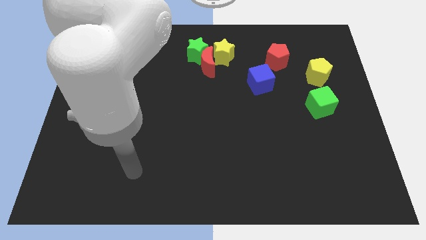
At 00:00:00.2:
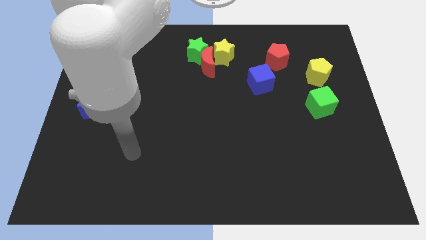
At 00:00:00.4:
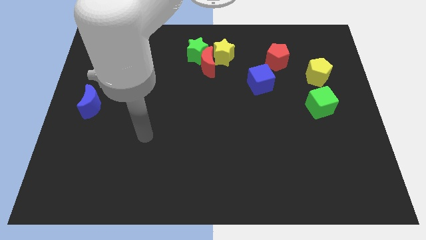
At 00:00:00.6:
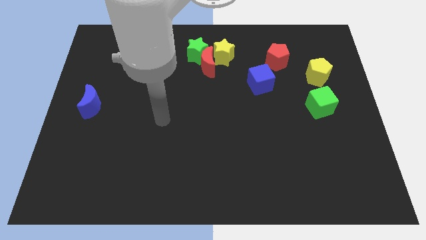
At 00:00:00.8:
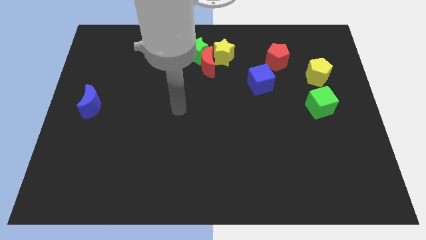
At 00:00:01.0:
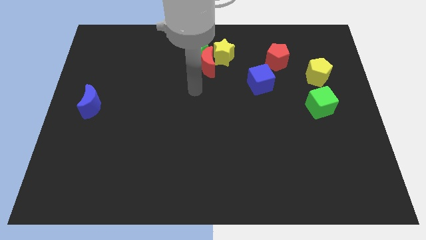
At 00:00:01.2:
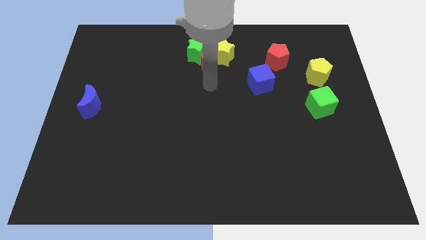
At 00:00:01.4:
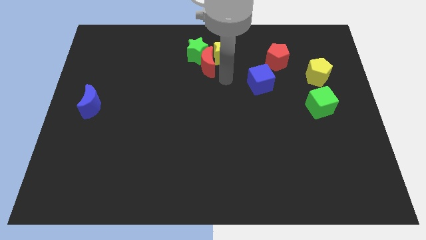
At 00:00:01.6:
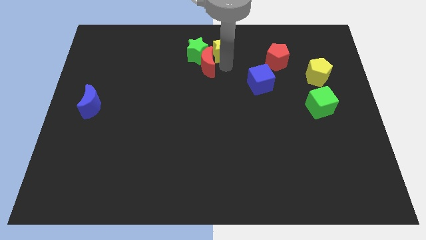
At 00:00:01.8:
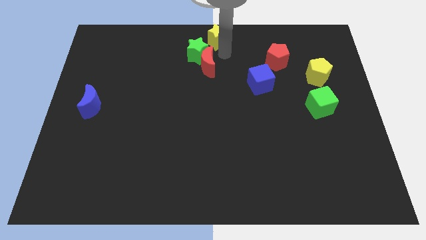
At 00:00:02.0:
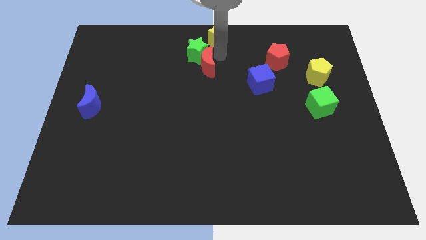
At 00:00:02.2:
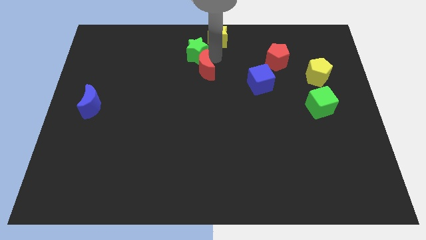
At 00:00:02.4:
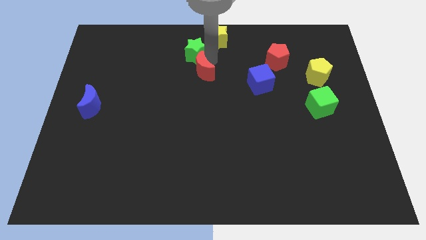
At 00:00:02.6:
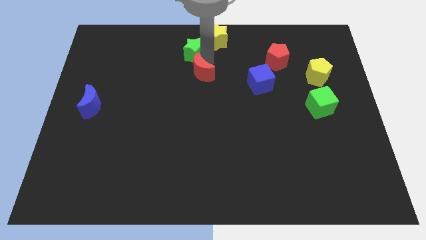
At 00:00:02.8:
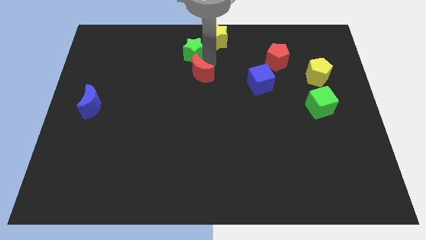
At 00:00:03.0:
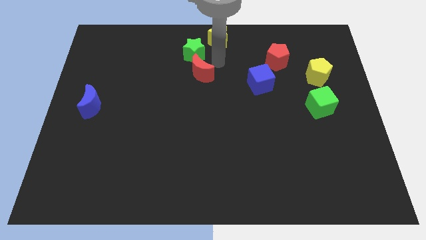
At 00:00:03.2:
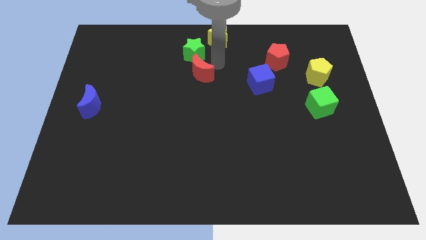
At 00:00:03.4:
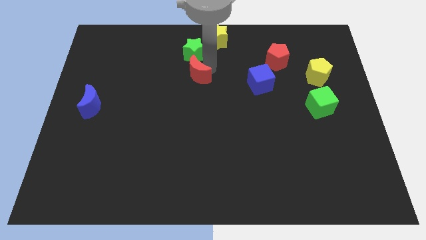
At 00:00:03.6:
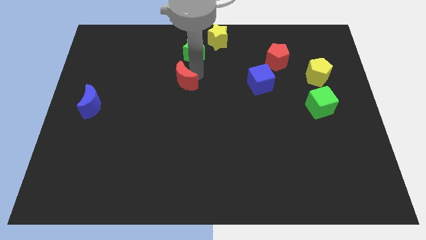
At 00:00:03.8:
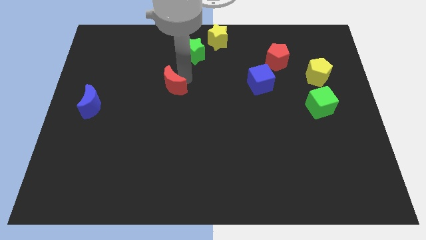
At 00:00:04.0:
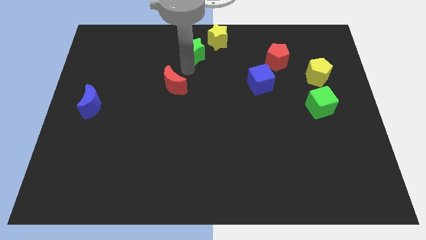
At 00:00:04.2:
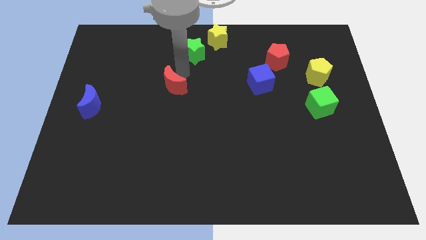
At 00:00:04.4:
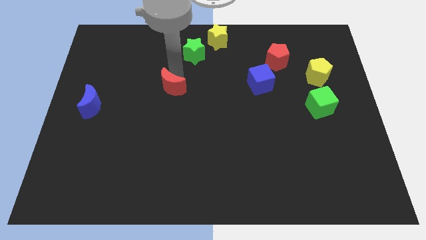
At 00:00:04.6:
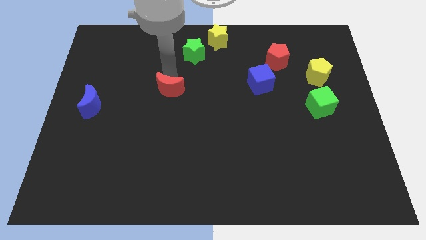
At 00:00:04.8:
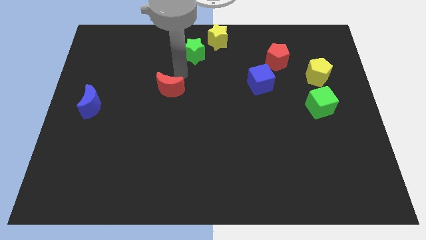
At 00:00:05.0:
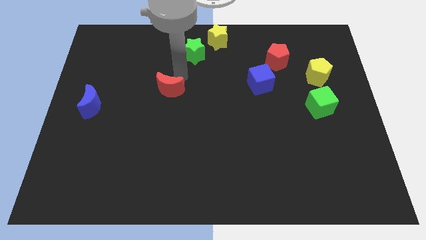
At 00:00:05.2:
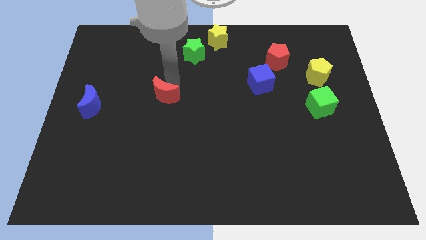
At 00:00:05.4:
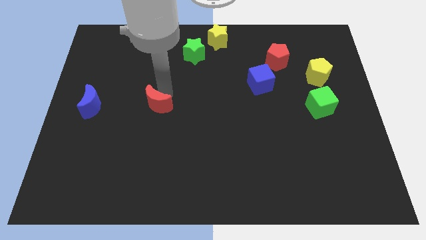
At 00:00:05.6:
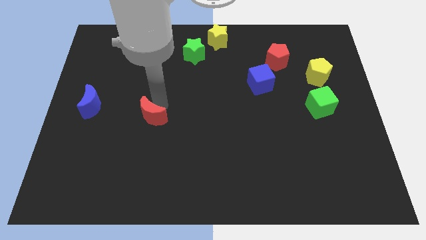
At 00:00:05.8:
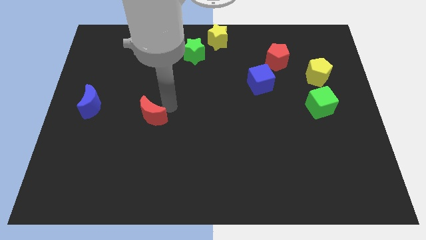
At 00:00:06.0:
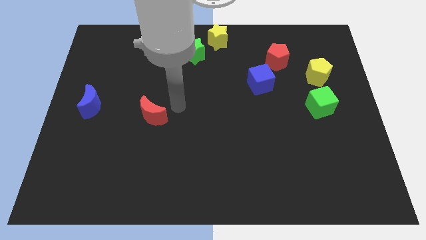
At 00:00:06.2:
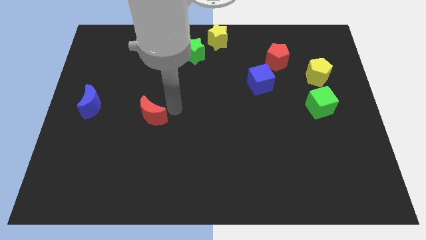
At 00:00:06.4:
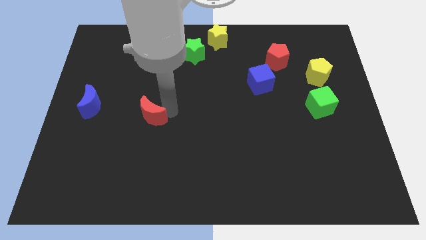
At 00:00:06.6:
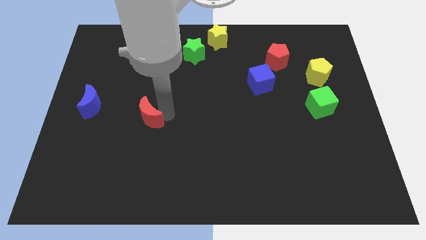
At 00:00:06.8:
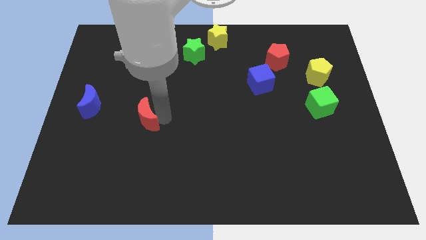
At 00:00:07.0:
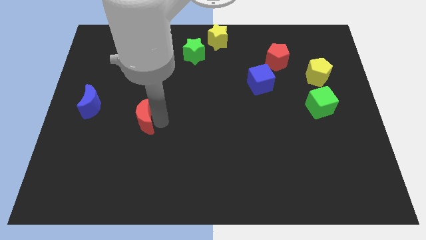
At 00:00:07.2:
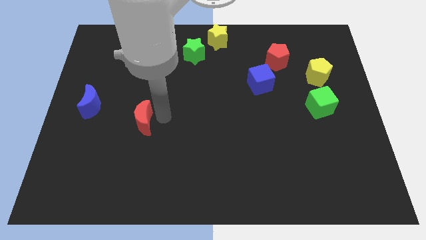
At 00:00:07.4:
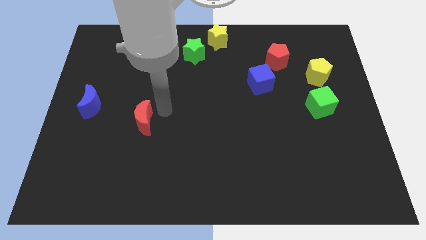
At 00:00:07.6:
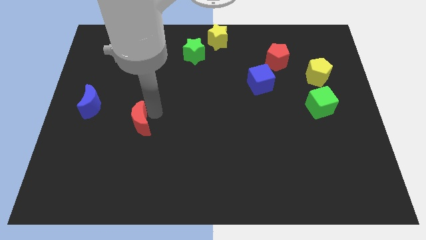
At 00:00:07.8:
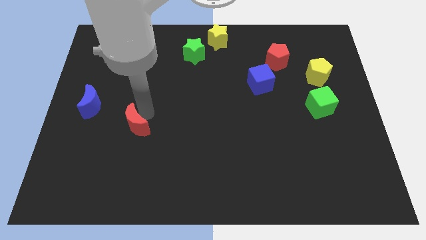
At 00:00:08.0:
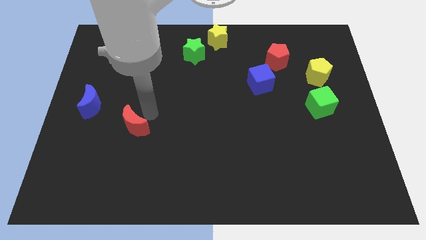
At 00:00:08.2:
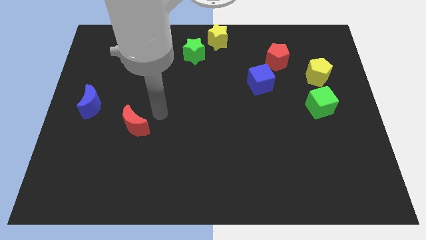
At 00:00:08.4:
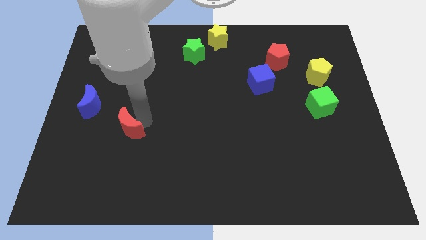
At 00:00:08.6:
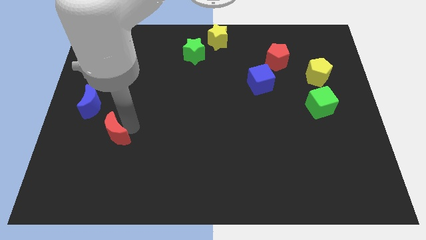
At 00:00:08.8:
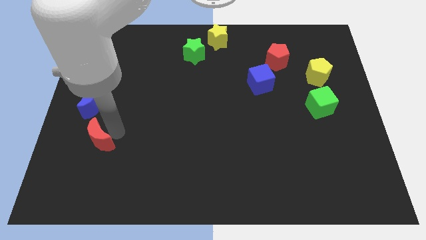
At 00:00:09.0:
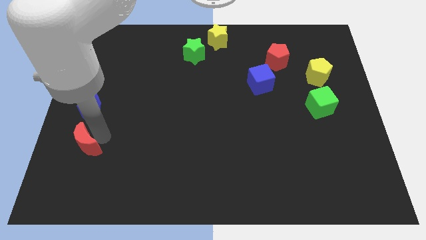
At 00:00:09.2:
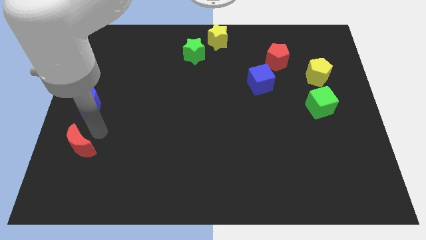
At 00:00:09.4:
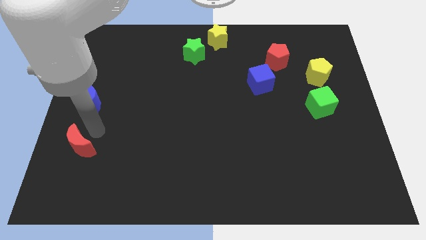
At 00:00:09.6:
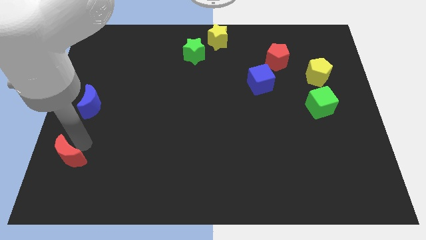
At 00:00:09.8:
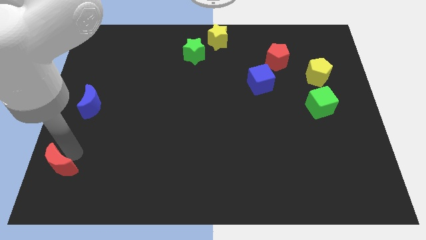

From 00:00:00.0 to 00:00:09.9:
put the red moon to the bottom left of the board

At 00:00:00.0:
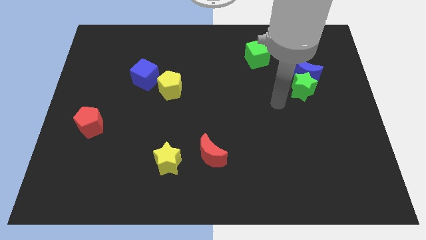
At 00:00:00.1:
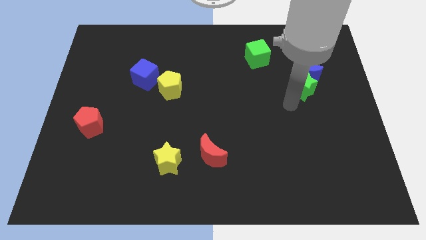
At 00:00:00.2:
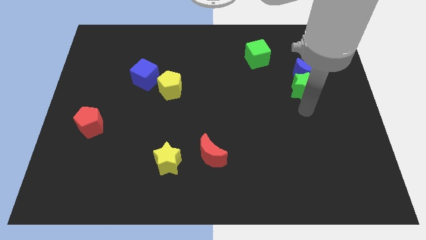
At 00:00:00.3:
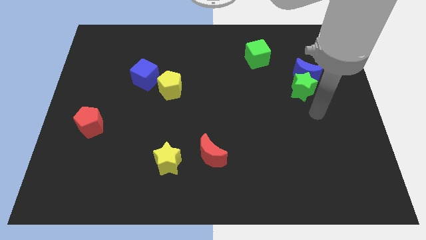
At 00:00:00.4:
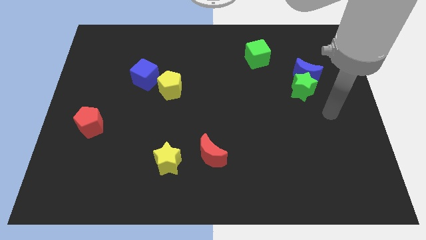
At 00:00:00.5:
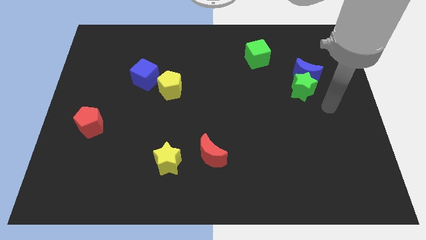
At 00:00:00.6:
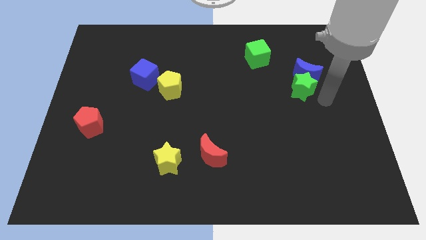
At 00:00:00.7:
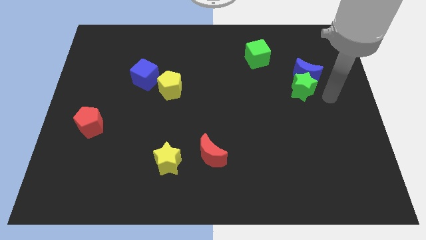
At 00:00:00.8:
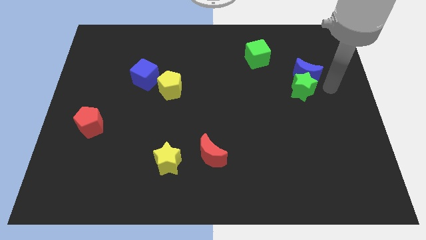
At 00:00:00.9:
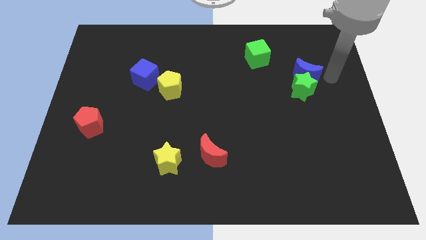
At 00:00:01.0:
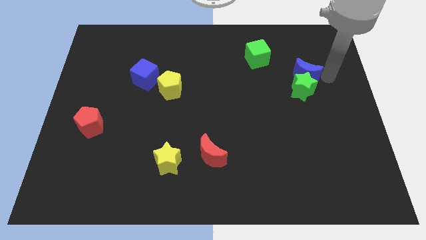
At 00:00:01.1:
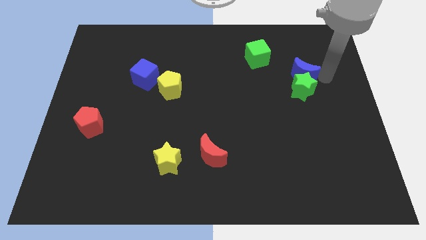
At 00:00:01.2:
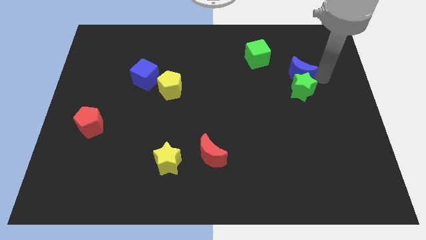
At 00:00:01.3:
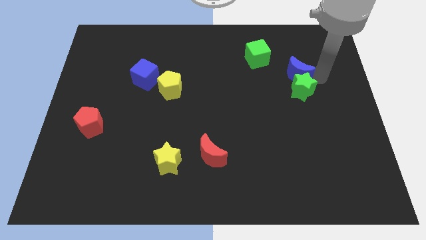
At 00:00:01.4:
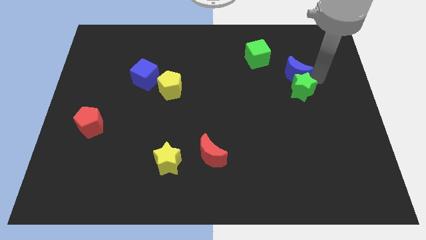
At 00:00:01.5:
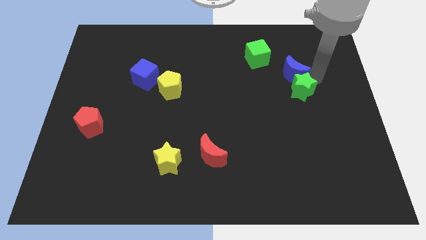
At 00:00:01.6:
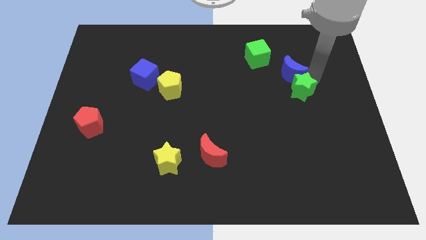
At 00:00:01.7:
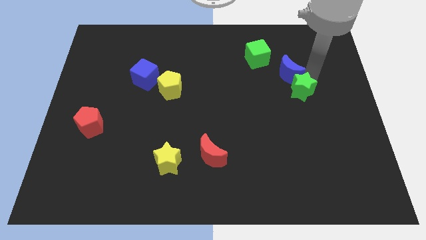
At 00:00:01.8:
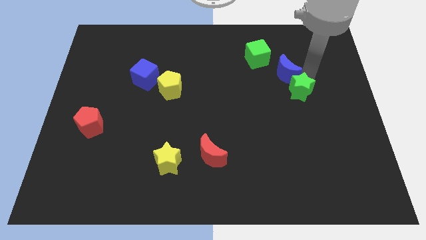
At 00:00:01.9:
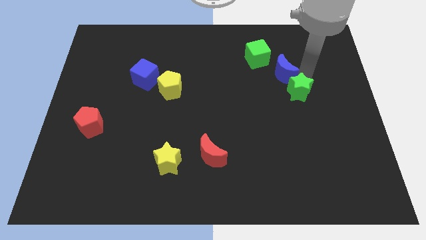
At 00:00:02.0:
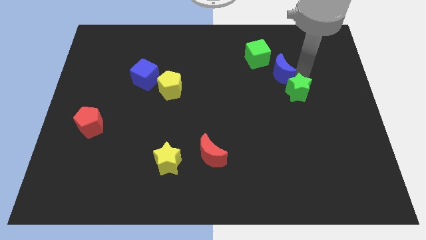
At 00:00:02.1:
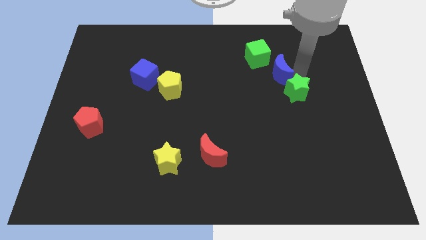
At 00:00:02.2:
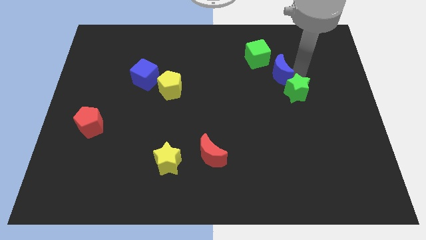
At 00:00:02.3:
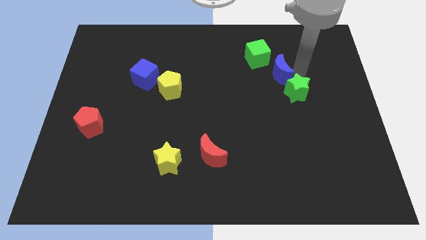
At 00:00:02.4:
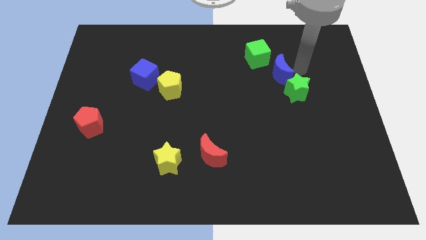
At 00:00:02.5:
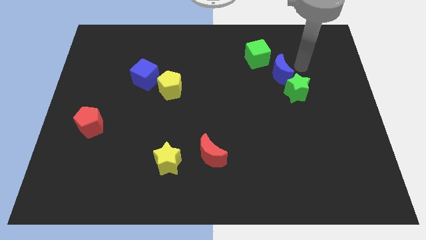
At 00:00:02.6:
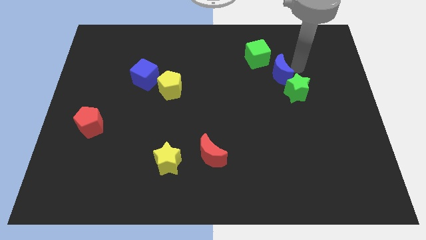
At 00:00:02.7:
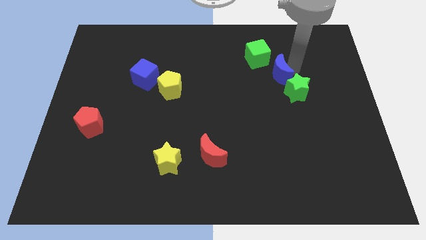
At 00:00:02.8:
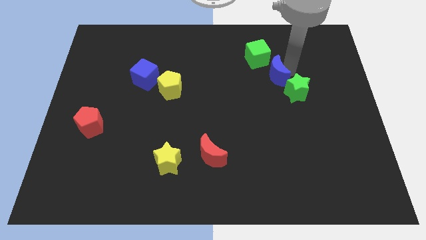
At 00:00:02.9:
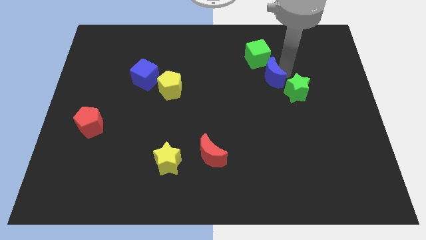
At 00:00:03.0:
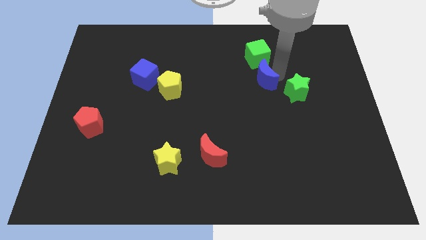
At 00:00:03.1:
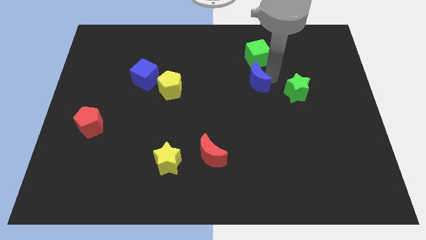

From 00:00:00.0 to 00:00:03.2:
push the blue moon to the middle
